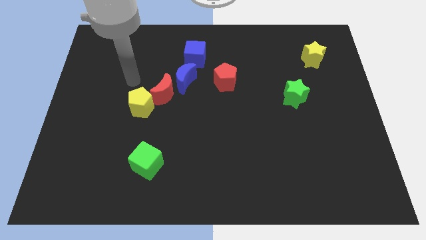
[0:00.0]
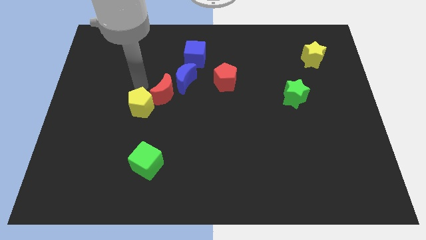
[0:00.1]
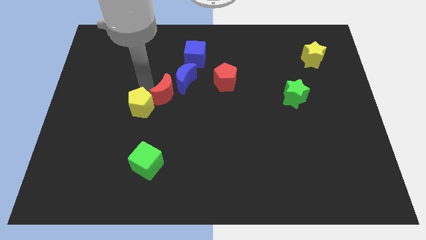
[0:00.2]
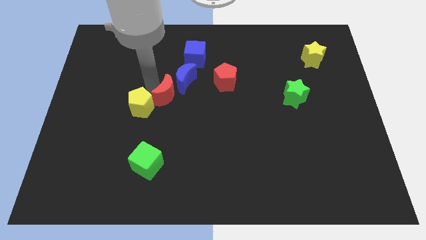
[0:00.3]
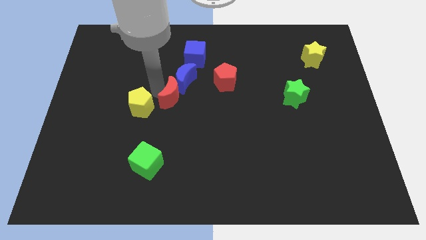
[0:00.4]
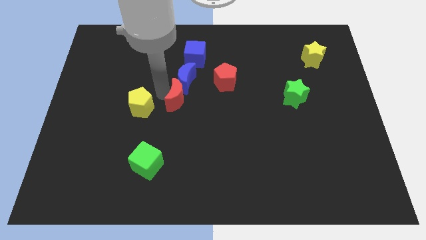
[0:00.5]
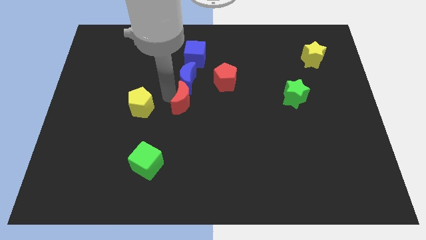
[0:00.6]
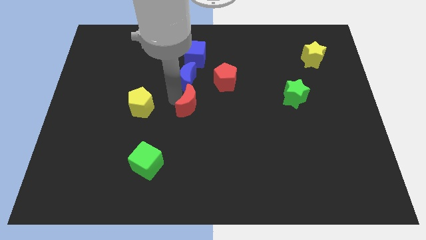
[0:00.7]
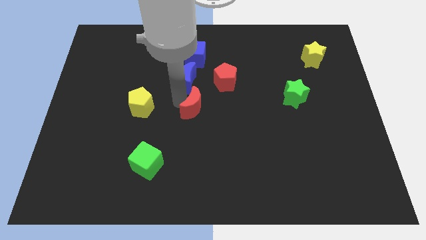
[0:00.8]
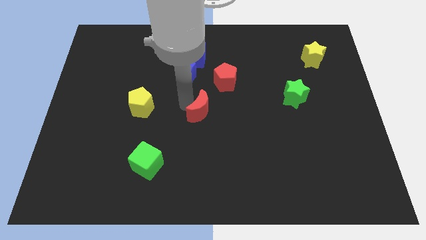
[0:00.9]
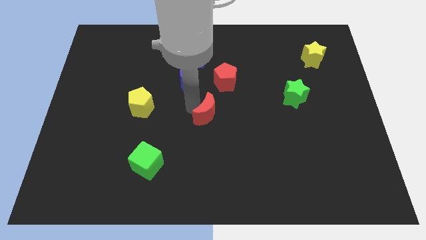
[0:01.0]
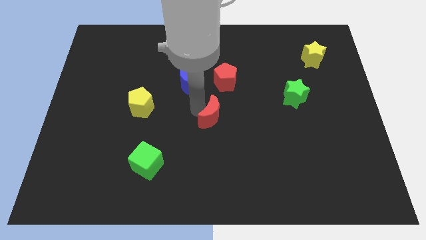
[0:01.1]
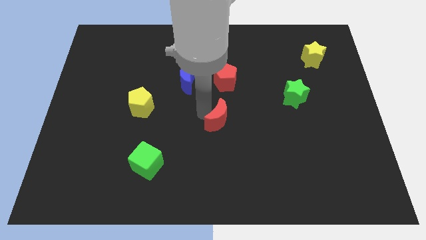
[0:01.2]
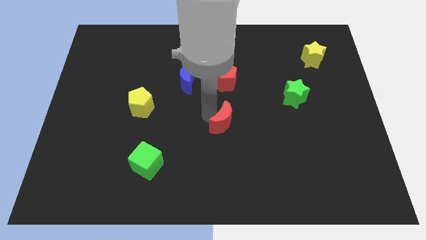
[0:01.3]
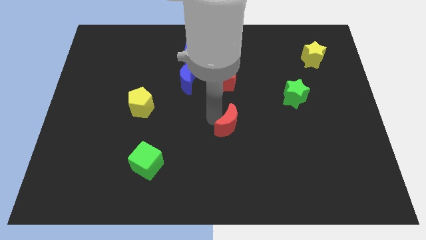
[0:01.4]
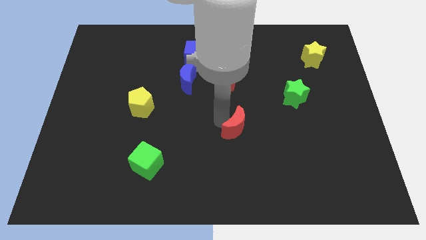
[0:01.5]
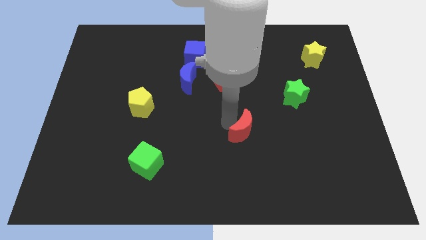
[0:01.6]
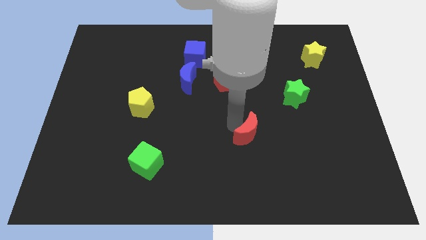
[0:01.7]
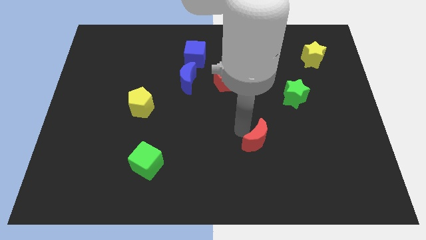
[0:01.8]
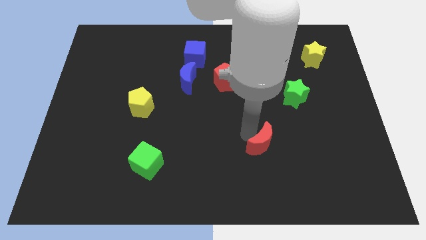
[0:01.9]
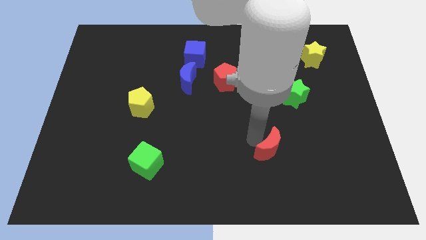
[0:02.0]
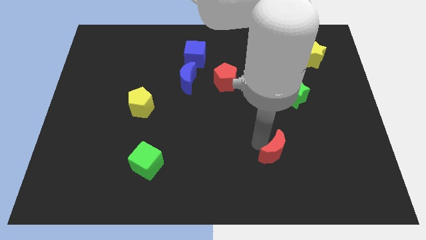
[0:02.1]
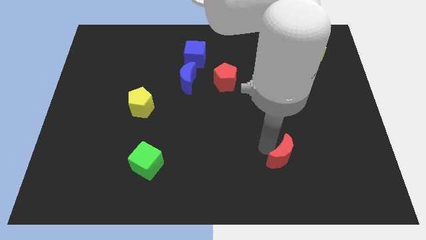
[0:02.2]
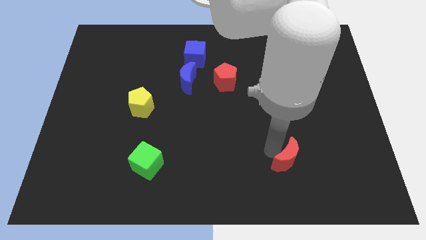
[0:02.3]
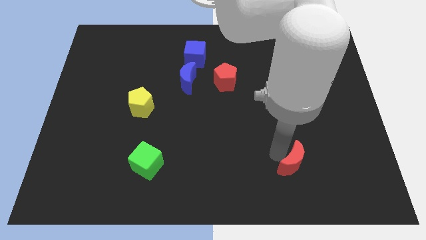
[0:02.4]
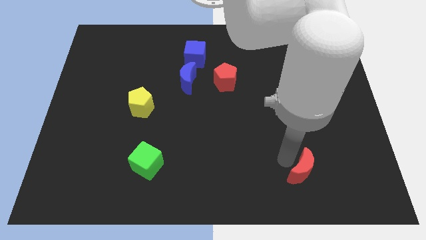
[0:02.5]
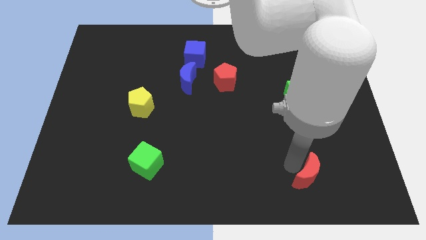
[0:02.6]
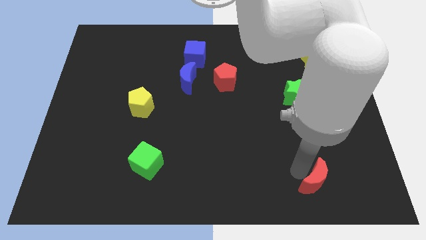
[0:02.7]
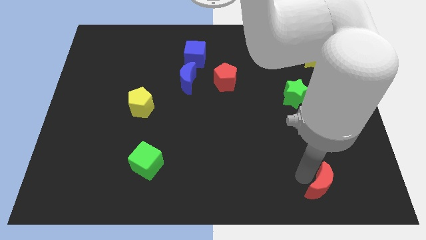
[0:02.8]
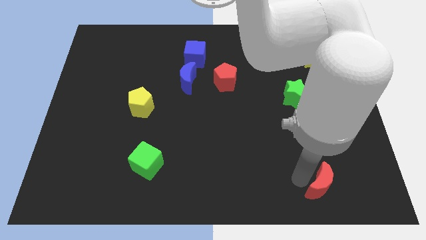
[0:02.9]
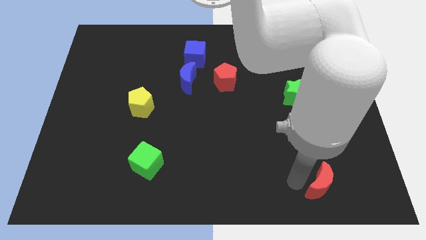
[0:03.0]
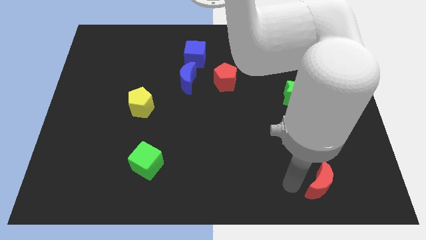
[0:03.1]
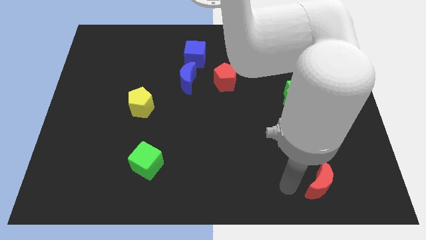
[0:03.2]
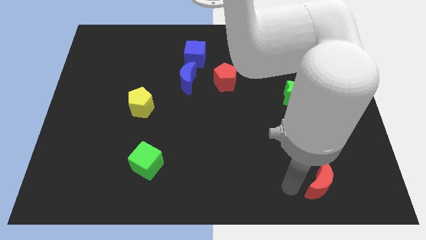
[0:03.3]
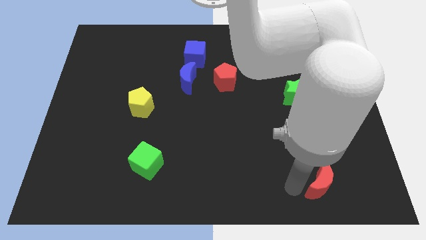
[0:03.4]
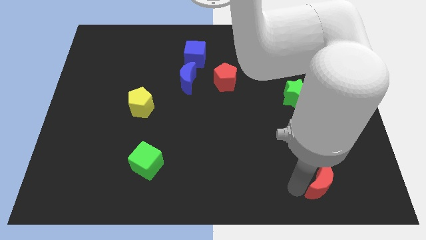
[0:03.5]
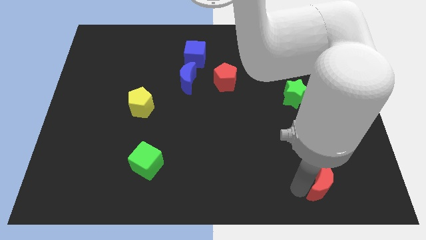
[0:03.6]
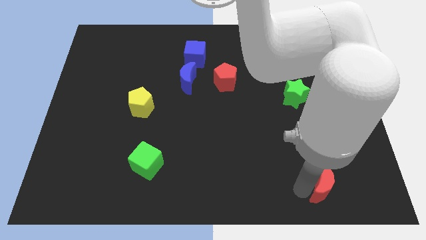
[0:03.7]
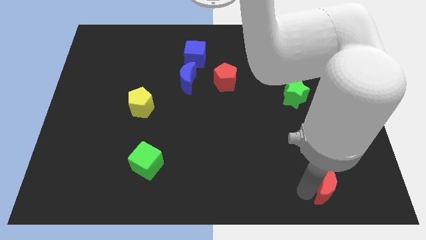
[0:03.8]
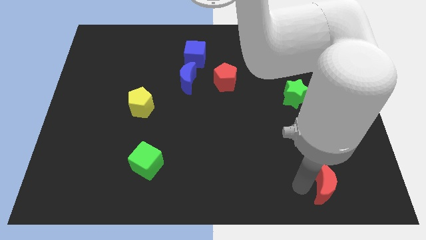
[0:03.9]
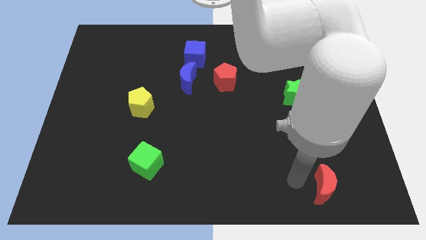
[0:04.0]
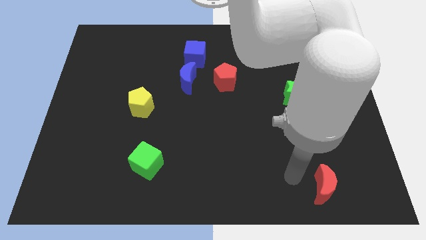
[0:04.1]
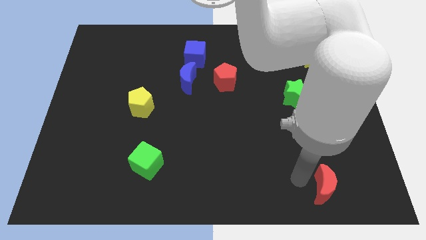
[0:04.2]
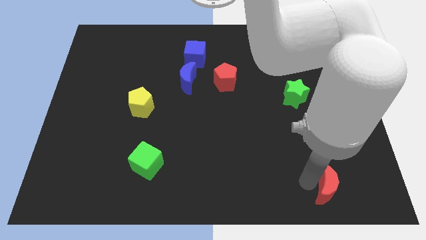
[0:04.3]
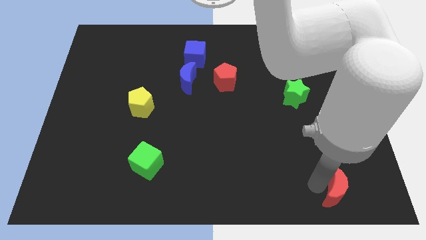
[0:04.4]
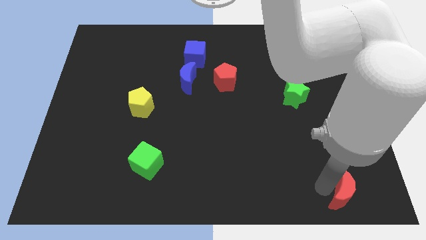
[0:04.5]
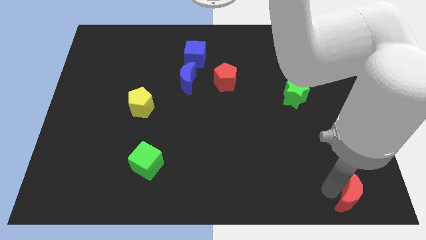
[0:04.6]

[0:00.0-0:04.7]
push the red moon to the bottom right

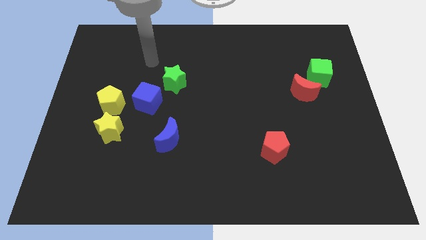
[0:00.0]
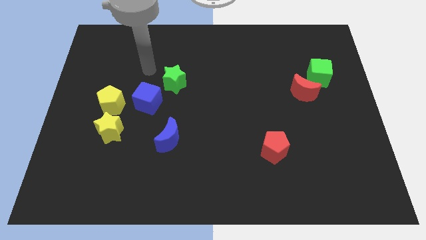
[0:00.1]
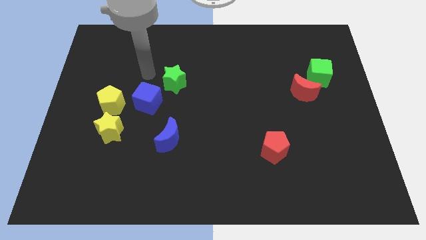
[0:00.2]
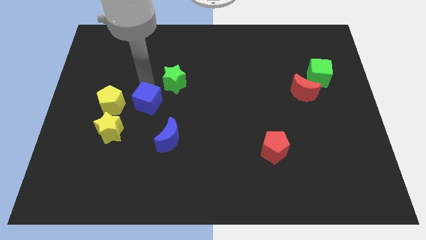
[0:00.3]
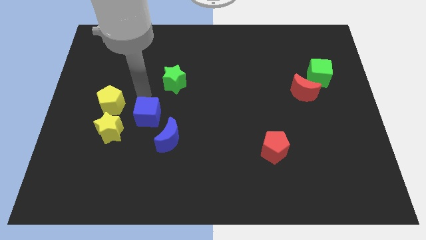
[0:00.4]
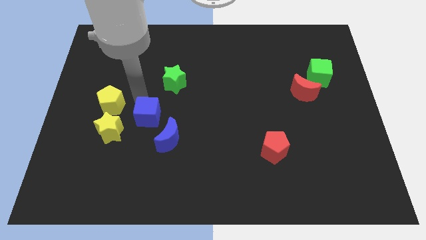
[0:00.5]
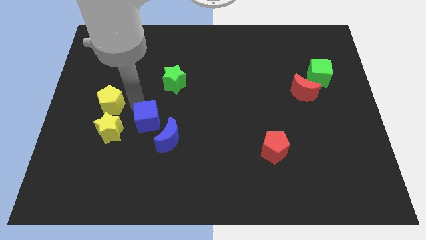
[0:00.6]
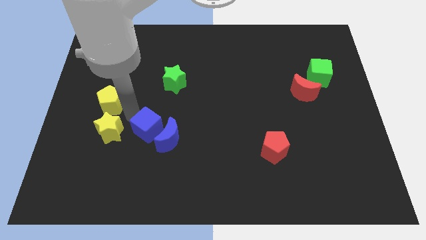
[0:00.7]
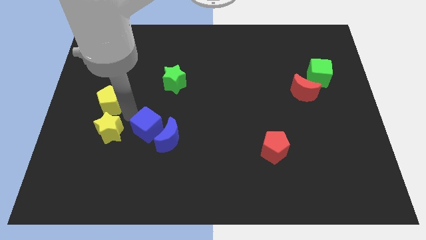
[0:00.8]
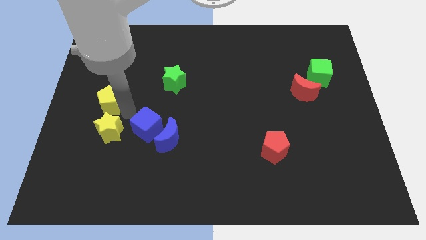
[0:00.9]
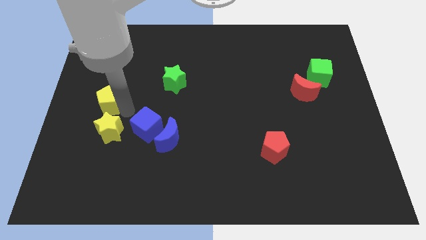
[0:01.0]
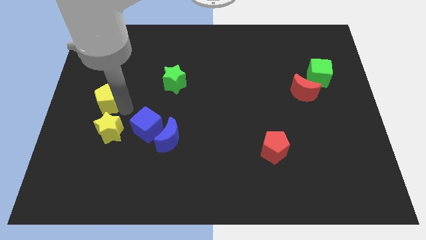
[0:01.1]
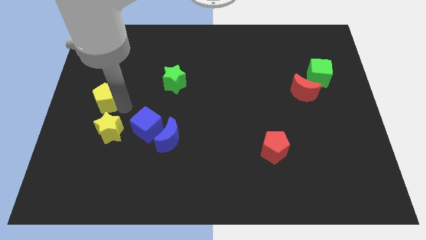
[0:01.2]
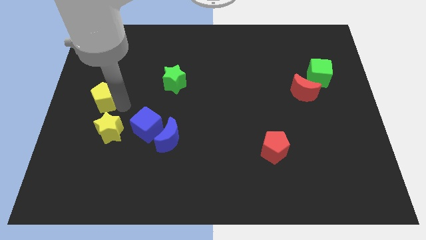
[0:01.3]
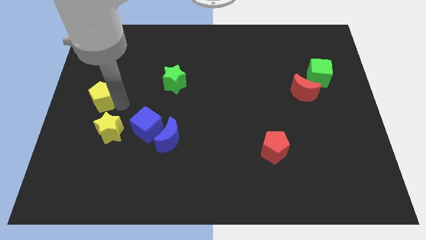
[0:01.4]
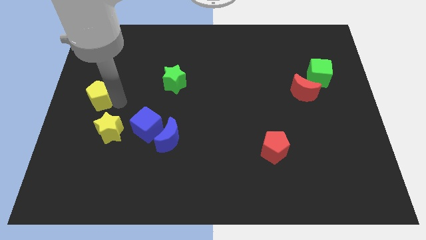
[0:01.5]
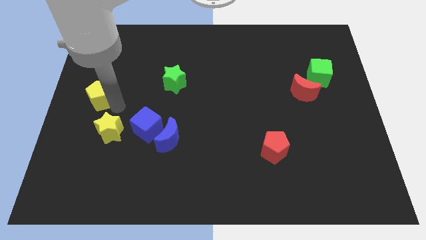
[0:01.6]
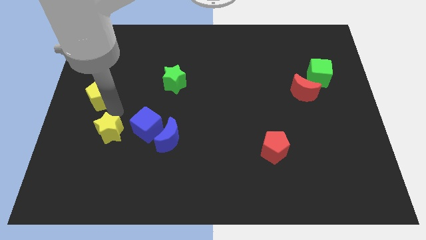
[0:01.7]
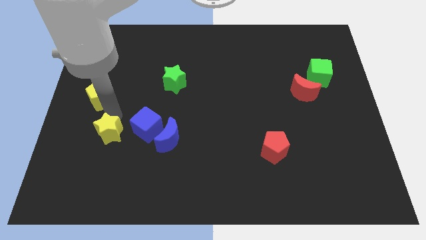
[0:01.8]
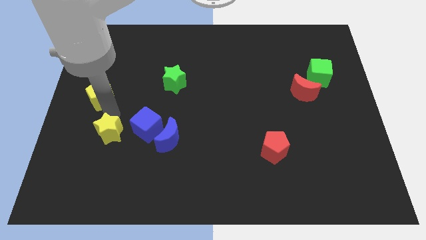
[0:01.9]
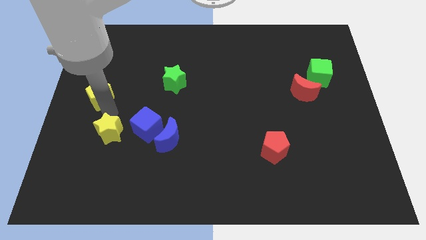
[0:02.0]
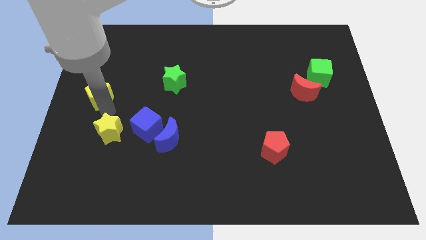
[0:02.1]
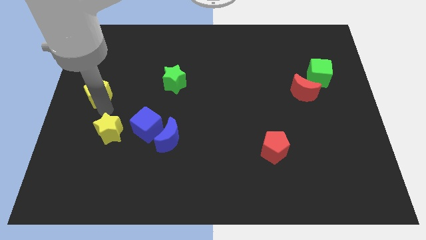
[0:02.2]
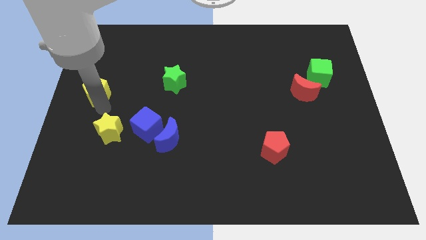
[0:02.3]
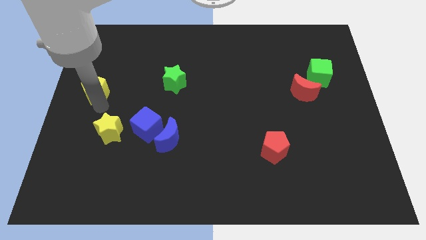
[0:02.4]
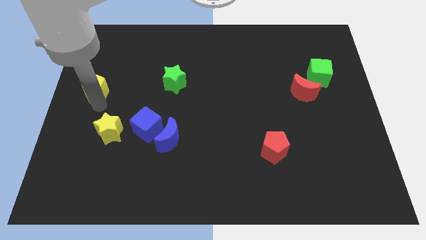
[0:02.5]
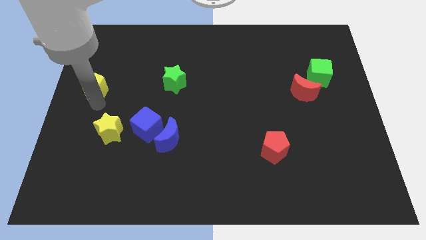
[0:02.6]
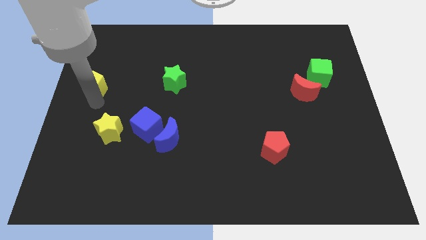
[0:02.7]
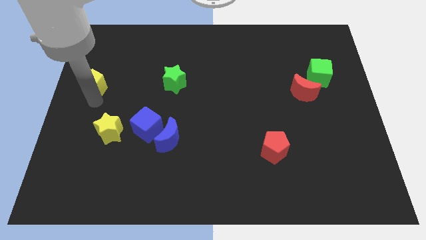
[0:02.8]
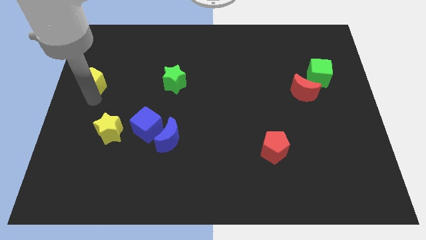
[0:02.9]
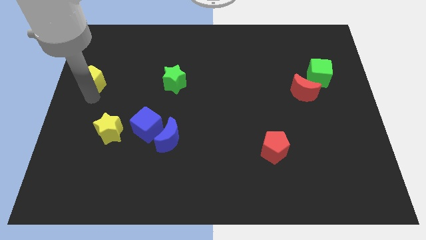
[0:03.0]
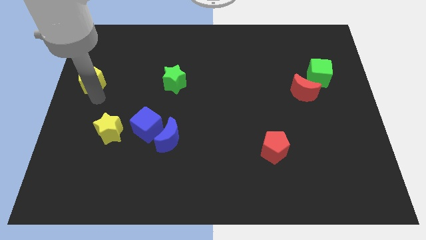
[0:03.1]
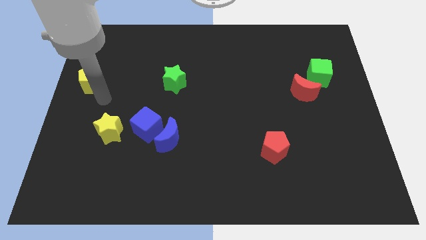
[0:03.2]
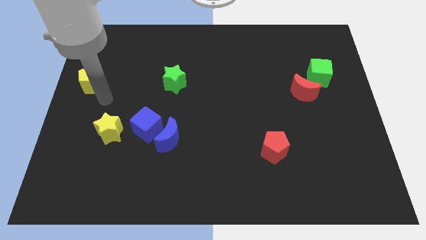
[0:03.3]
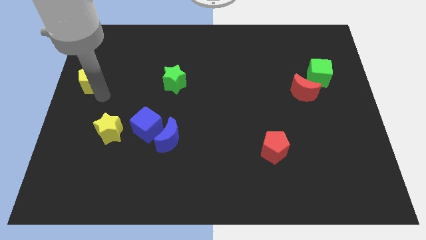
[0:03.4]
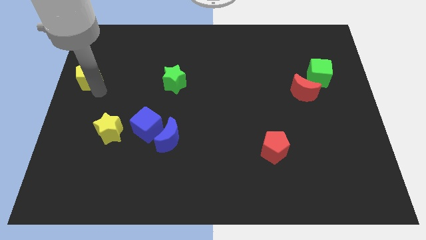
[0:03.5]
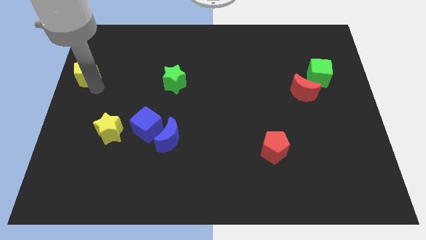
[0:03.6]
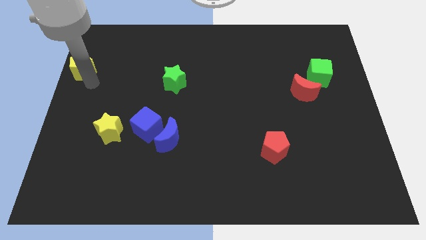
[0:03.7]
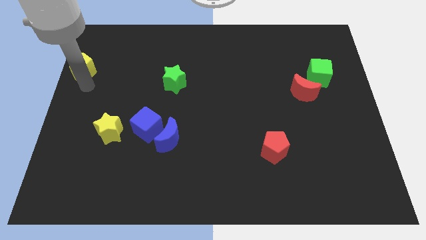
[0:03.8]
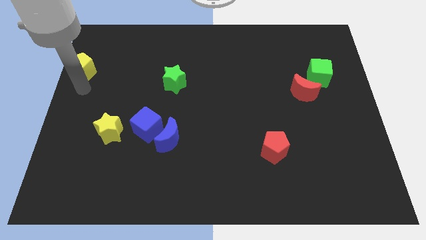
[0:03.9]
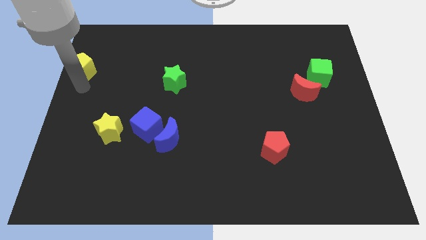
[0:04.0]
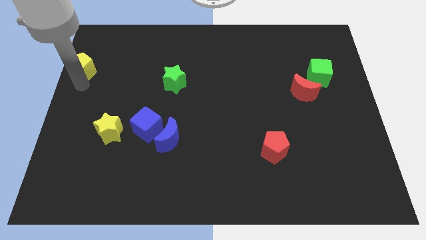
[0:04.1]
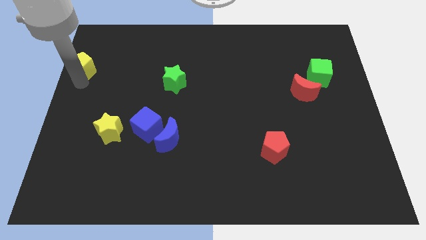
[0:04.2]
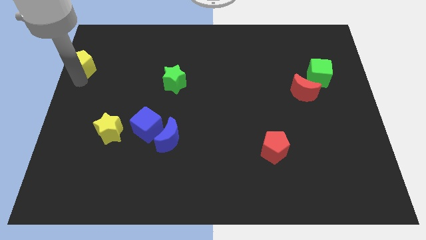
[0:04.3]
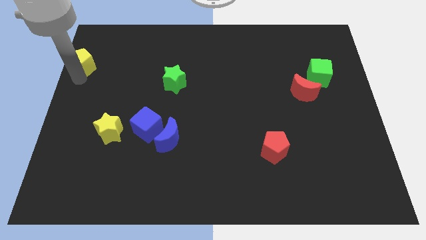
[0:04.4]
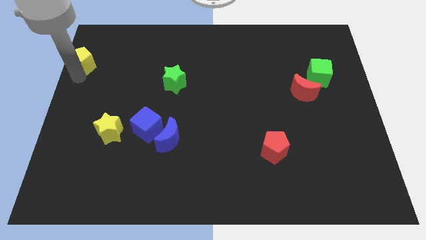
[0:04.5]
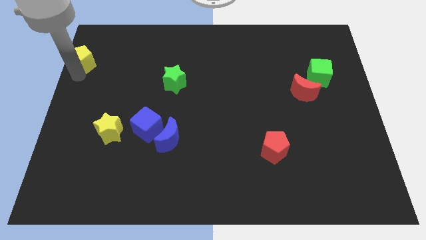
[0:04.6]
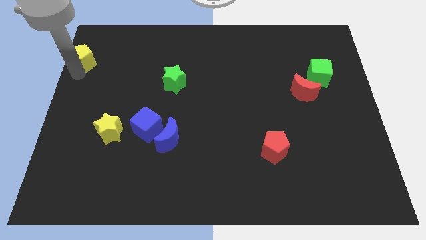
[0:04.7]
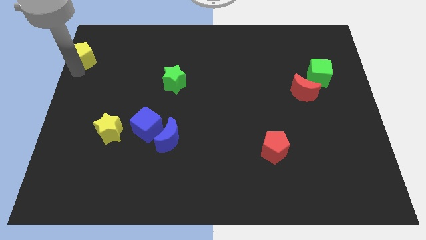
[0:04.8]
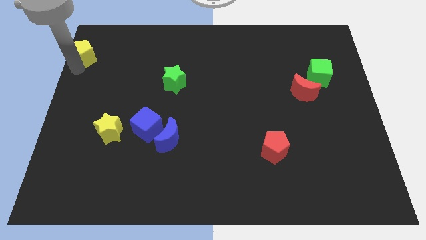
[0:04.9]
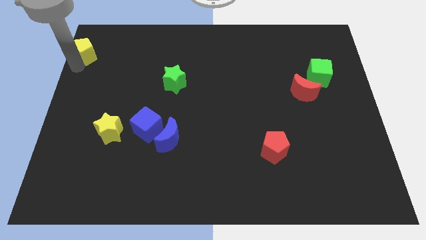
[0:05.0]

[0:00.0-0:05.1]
move the yellow pentagon to the top left
